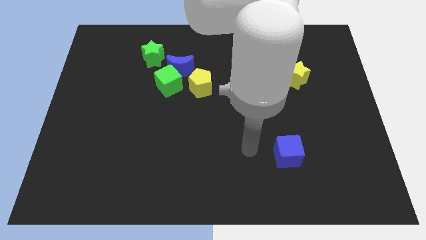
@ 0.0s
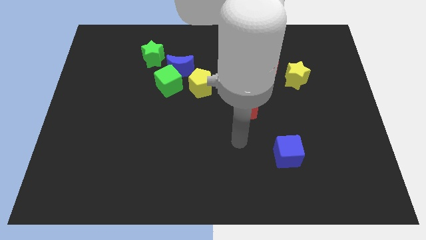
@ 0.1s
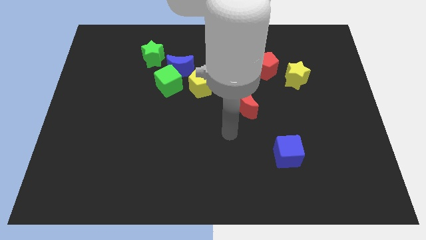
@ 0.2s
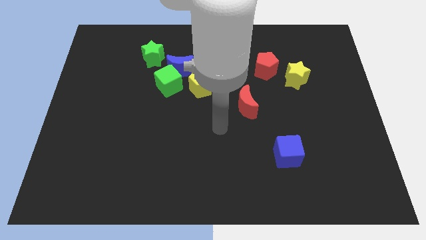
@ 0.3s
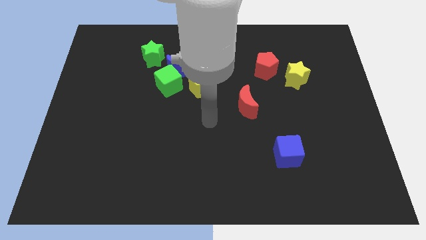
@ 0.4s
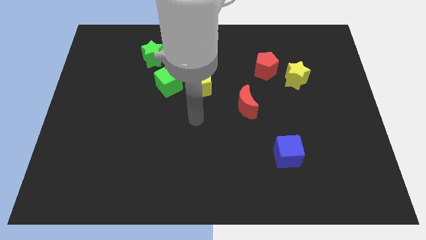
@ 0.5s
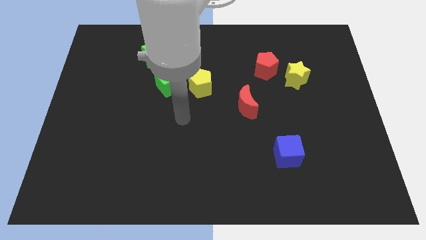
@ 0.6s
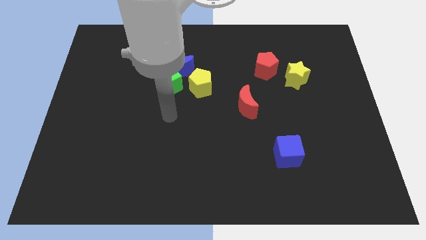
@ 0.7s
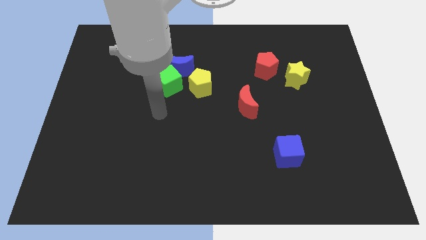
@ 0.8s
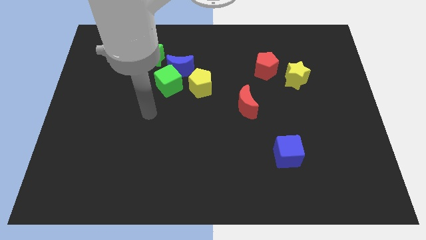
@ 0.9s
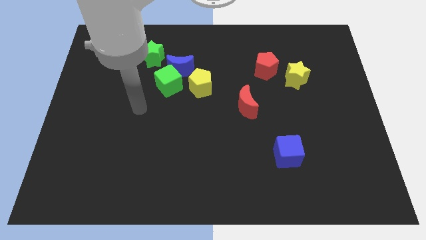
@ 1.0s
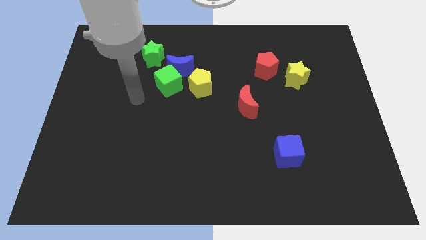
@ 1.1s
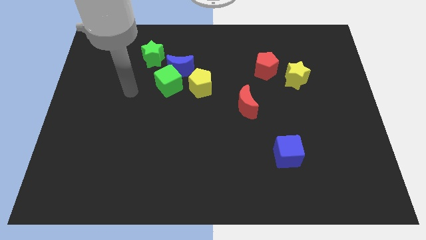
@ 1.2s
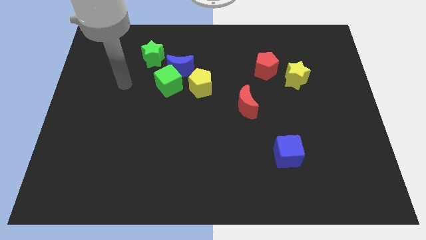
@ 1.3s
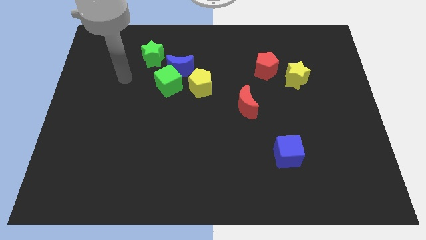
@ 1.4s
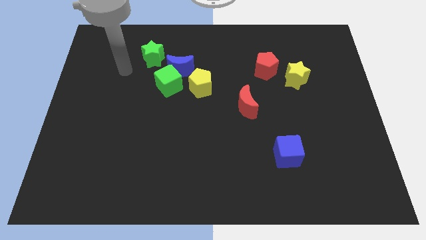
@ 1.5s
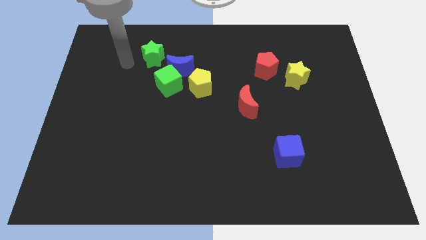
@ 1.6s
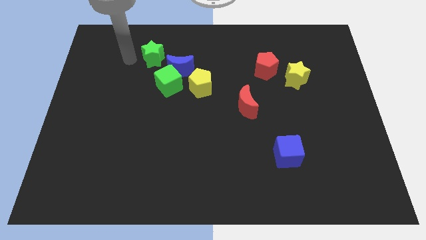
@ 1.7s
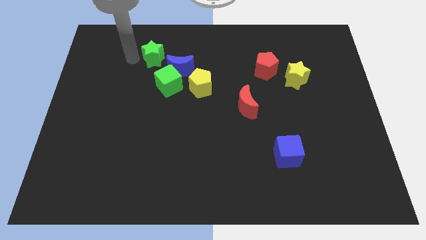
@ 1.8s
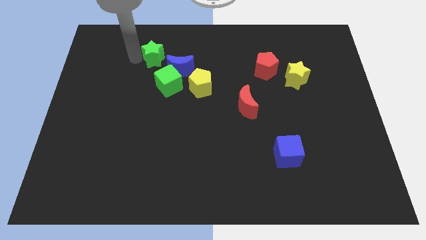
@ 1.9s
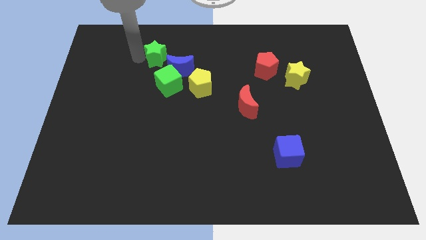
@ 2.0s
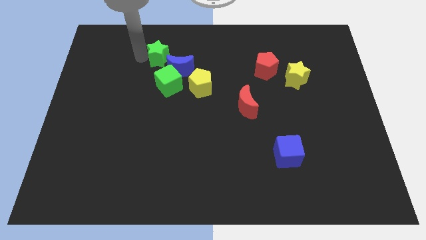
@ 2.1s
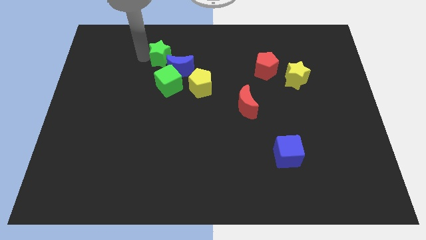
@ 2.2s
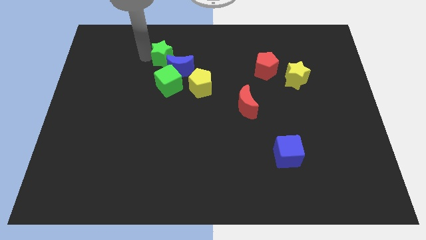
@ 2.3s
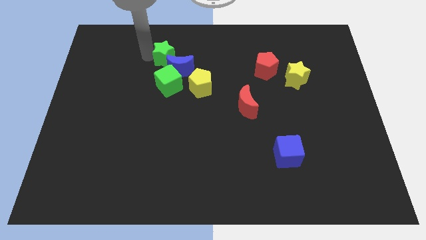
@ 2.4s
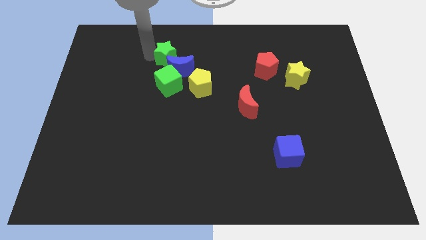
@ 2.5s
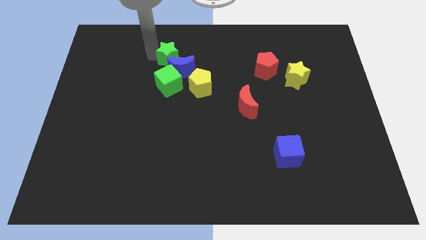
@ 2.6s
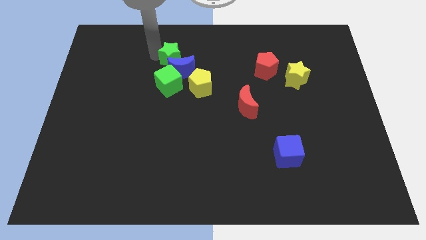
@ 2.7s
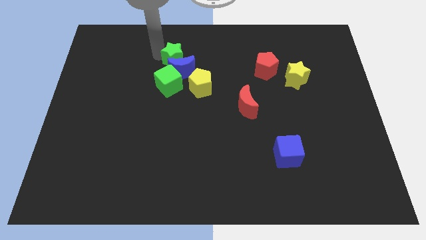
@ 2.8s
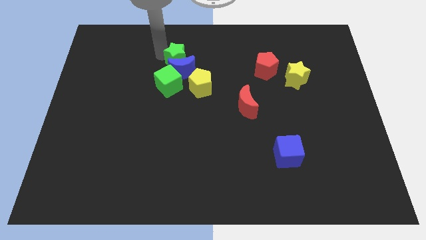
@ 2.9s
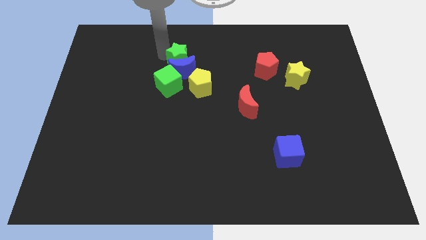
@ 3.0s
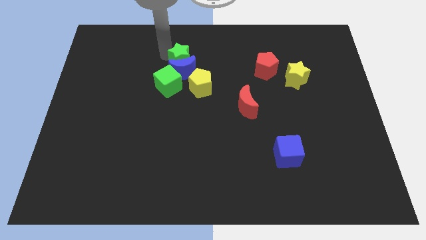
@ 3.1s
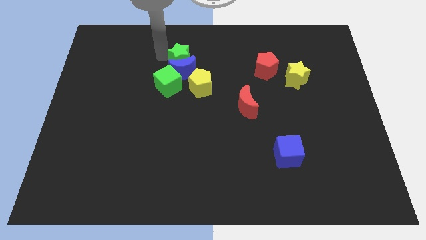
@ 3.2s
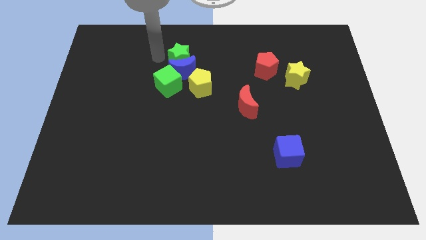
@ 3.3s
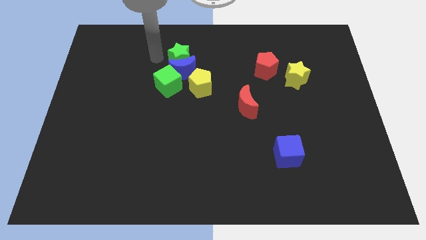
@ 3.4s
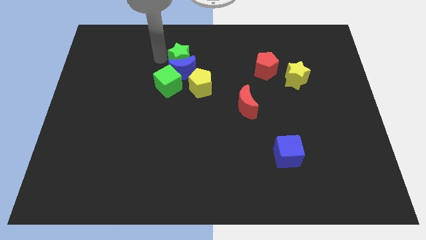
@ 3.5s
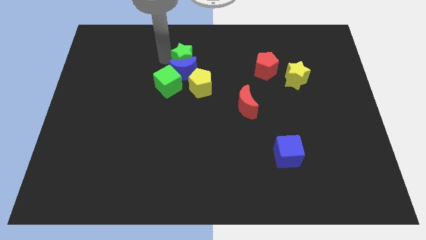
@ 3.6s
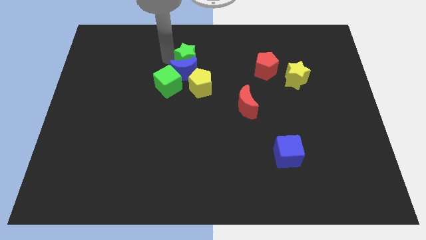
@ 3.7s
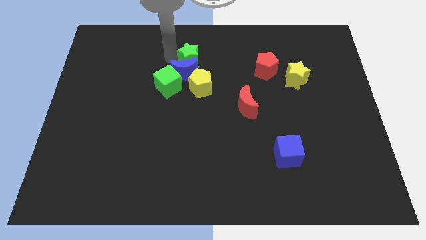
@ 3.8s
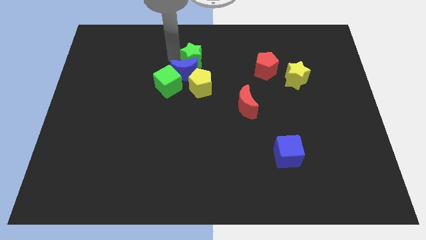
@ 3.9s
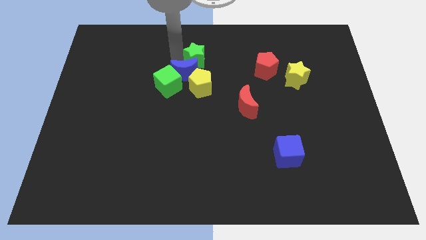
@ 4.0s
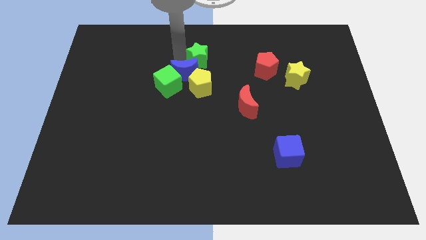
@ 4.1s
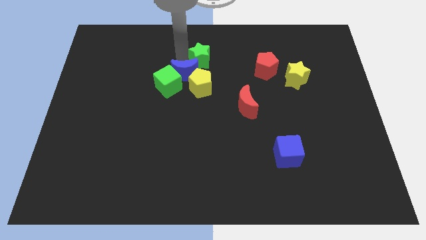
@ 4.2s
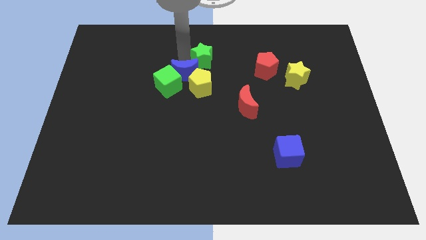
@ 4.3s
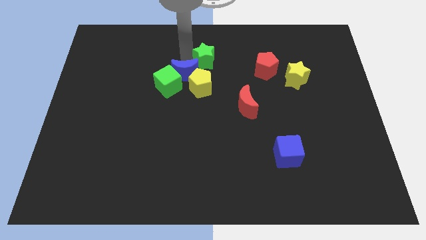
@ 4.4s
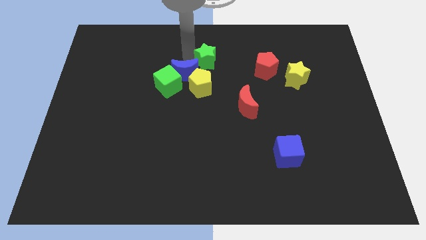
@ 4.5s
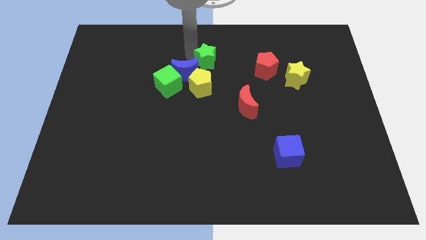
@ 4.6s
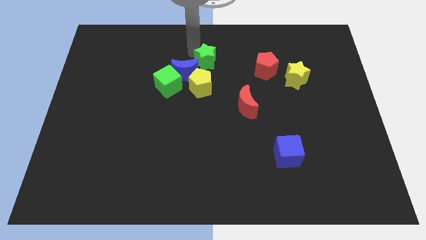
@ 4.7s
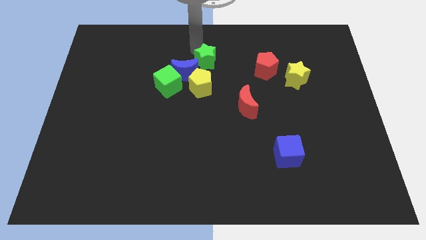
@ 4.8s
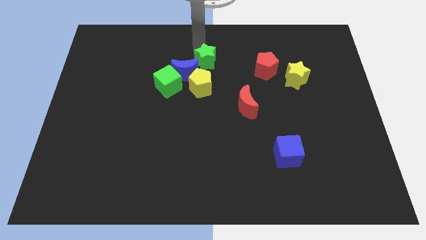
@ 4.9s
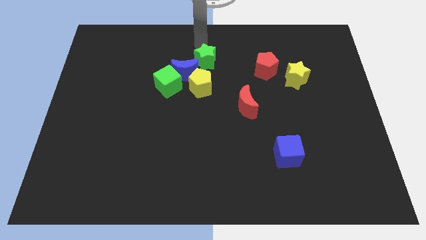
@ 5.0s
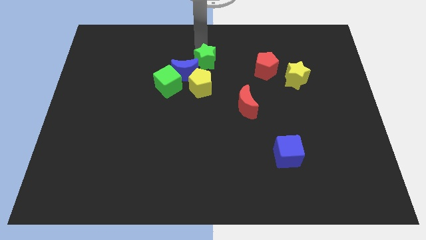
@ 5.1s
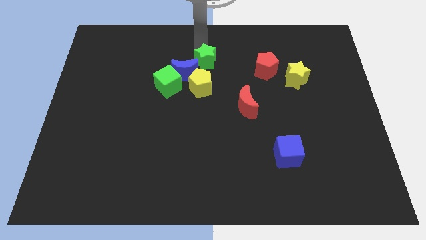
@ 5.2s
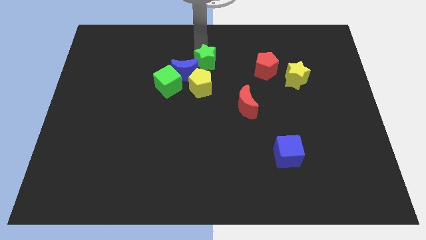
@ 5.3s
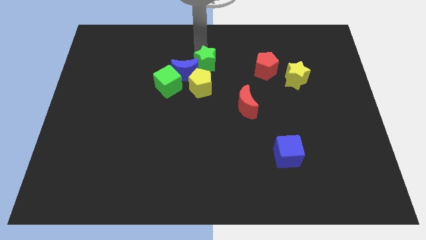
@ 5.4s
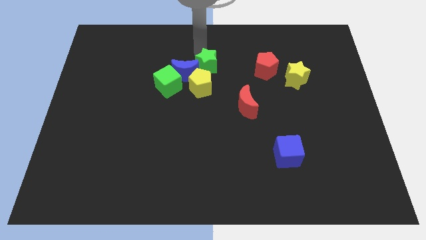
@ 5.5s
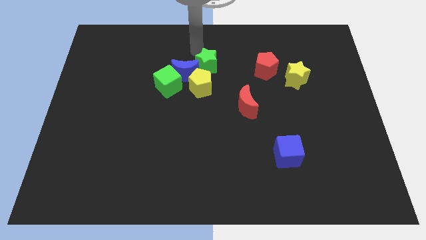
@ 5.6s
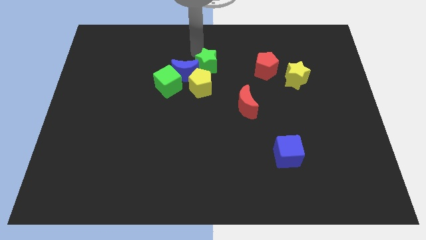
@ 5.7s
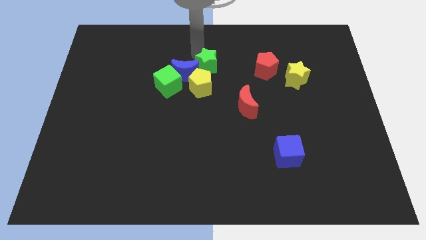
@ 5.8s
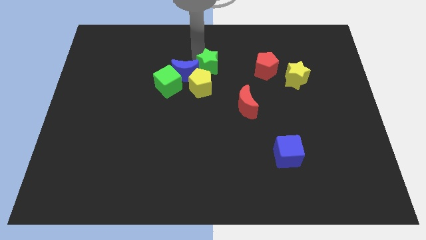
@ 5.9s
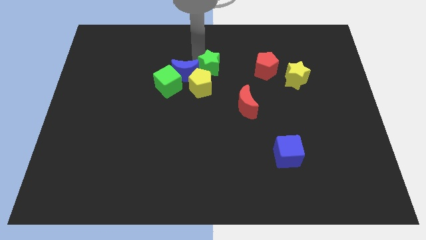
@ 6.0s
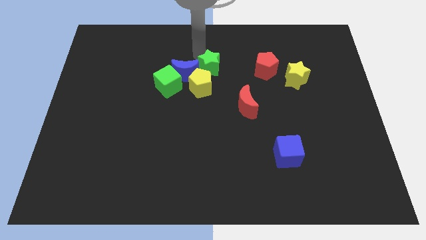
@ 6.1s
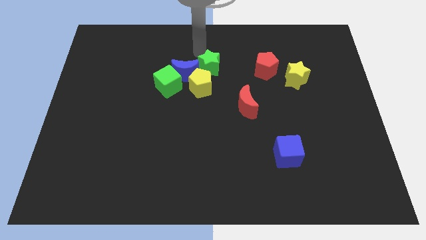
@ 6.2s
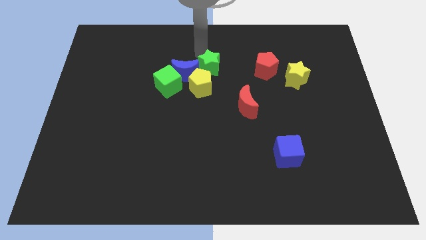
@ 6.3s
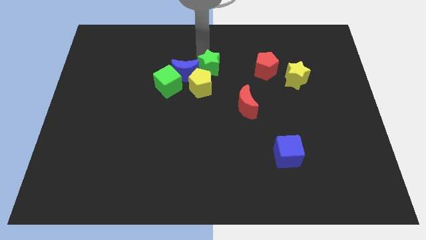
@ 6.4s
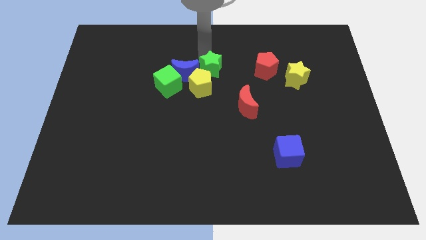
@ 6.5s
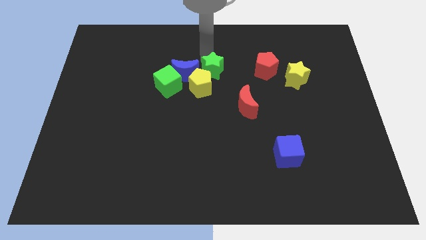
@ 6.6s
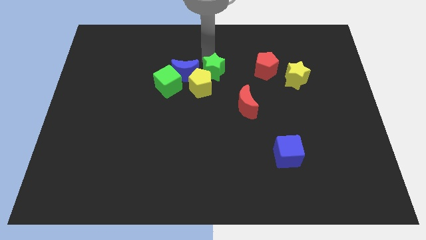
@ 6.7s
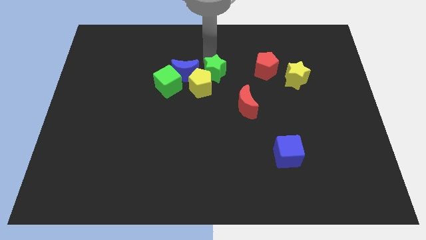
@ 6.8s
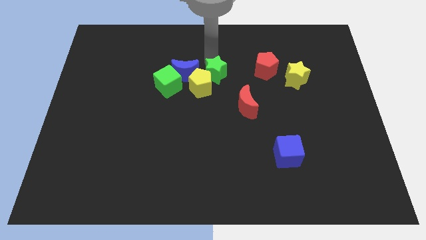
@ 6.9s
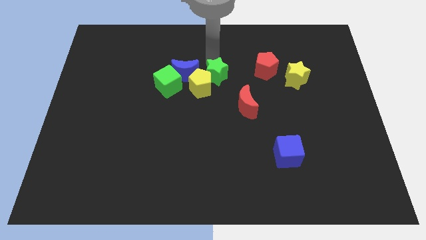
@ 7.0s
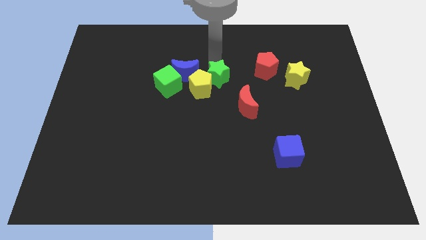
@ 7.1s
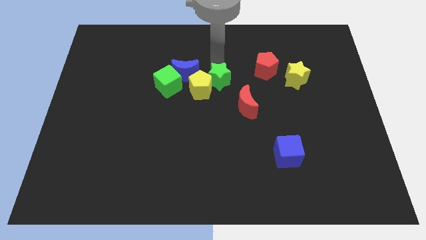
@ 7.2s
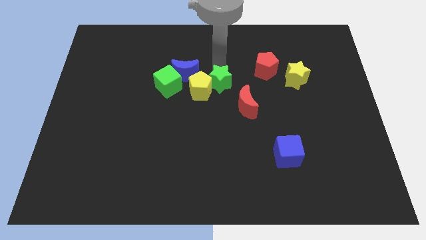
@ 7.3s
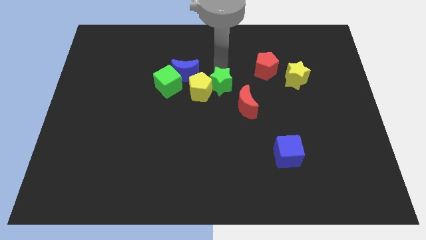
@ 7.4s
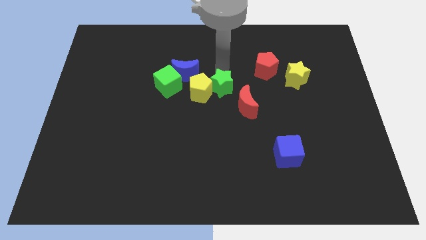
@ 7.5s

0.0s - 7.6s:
put the green star to the bottom right side of the yellow pentagon

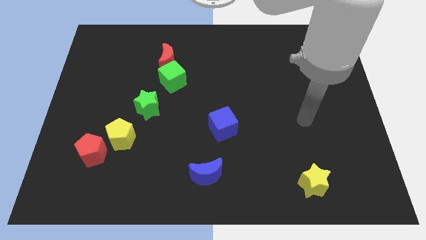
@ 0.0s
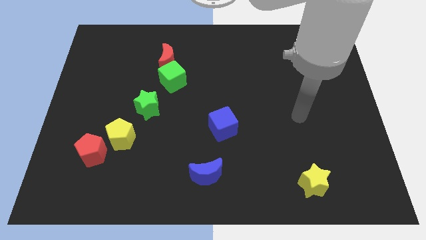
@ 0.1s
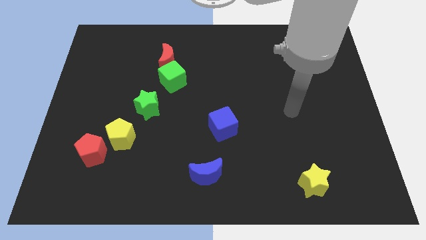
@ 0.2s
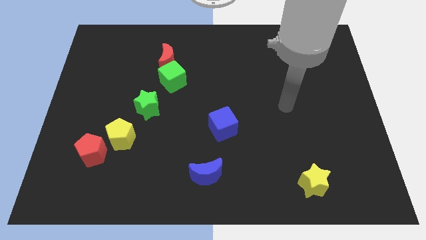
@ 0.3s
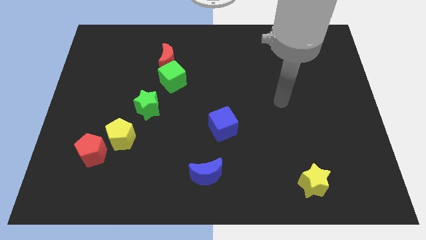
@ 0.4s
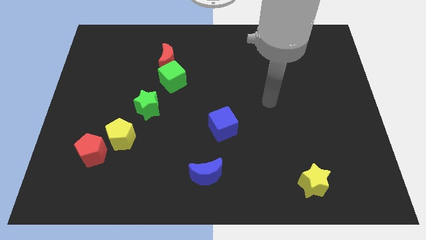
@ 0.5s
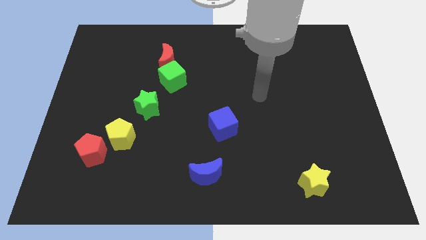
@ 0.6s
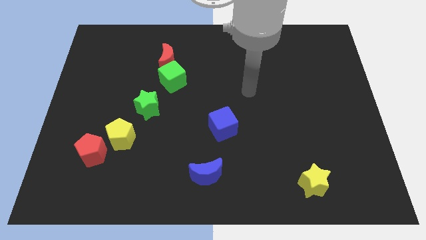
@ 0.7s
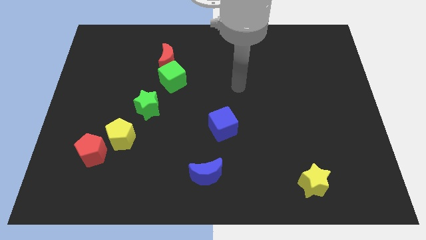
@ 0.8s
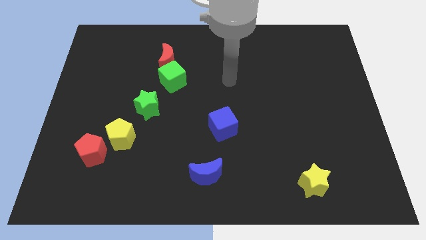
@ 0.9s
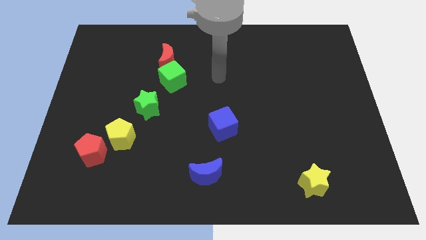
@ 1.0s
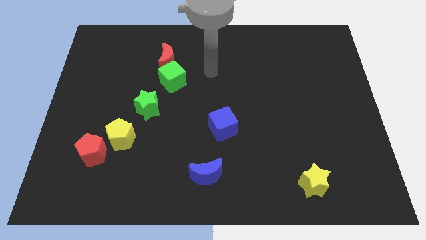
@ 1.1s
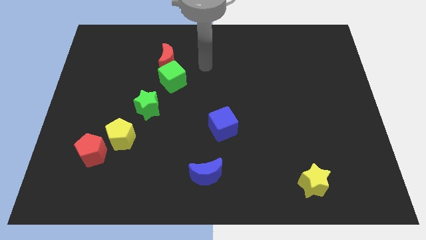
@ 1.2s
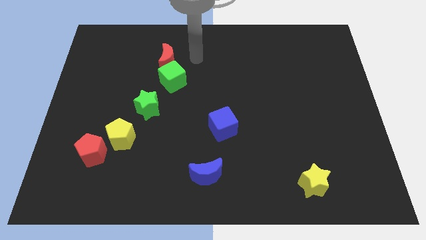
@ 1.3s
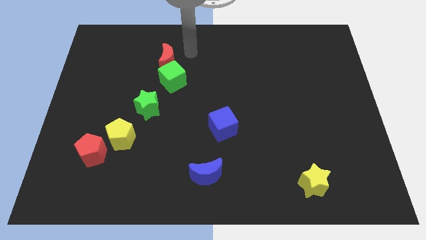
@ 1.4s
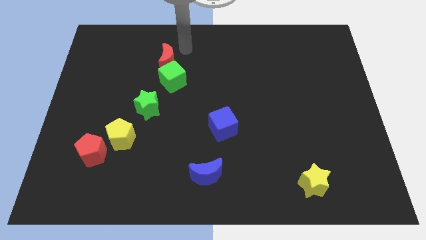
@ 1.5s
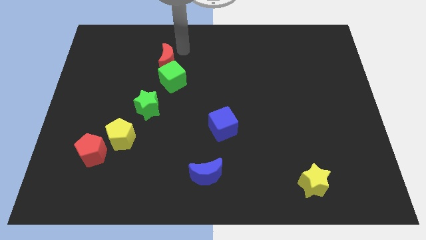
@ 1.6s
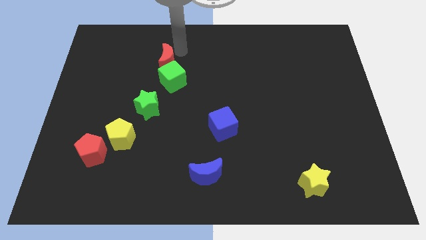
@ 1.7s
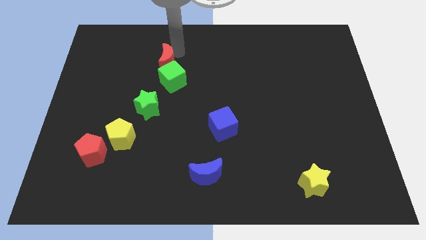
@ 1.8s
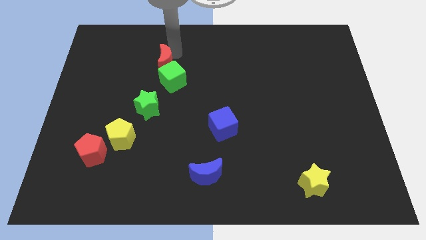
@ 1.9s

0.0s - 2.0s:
move the red moon to the top of the green star
